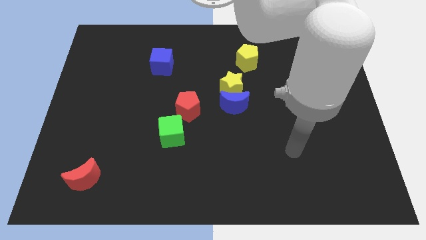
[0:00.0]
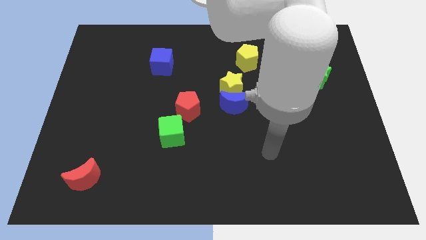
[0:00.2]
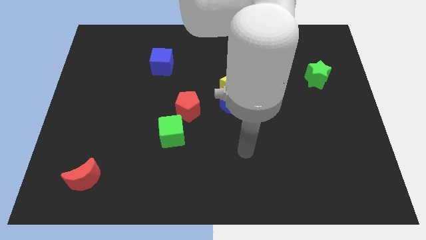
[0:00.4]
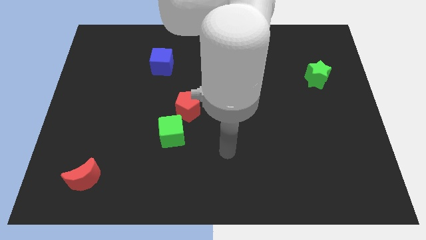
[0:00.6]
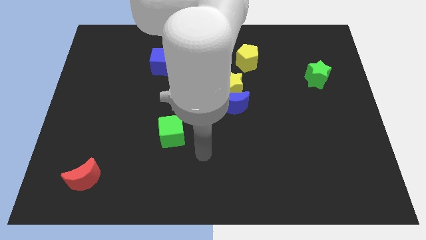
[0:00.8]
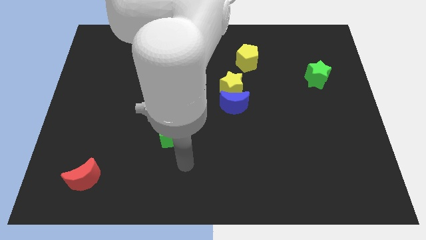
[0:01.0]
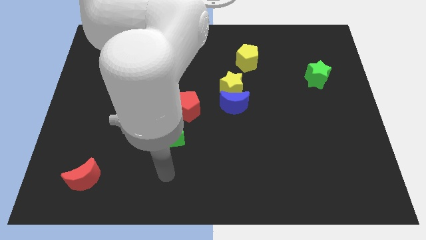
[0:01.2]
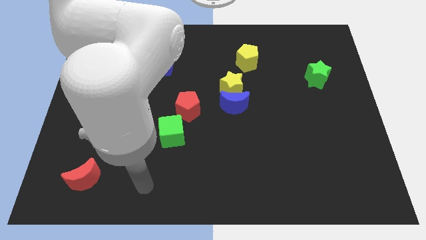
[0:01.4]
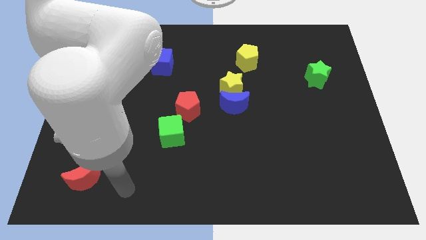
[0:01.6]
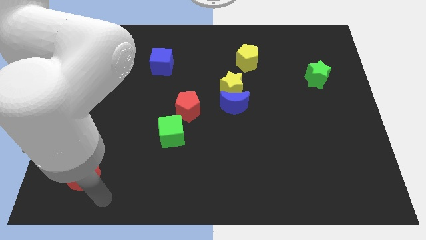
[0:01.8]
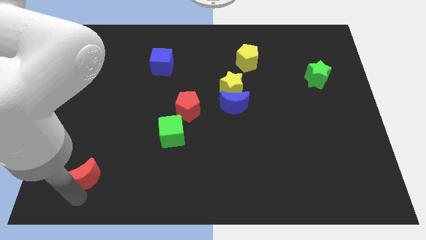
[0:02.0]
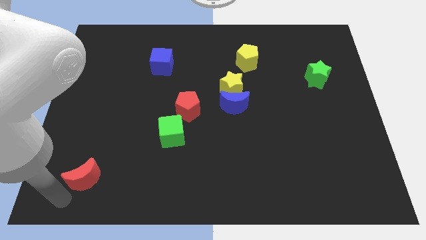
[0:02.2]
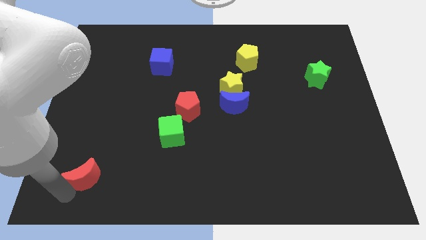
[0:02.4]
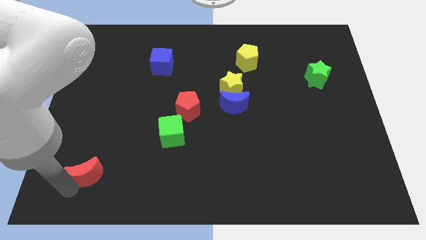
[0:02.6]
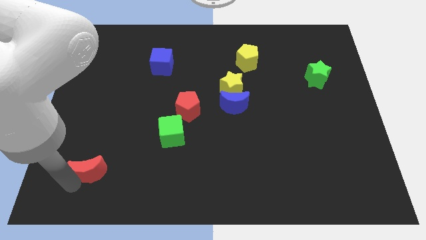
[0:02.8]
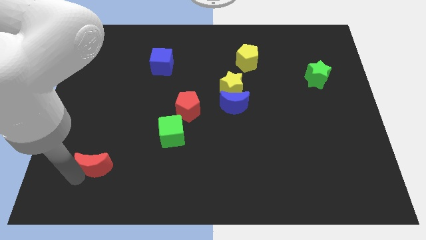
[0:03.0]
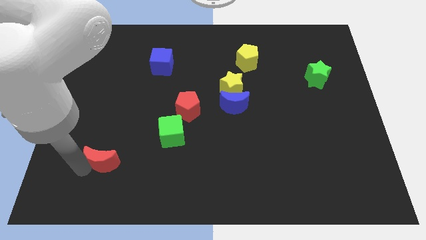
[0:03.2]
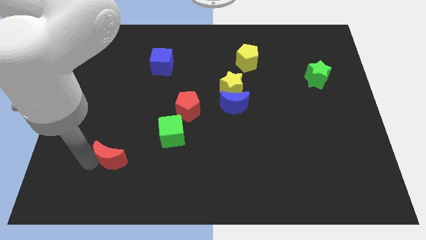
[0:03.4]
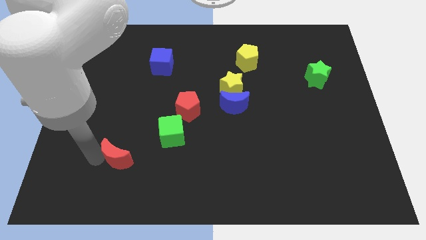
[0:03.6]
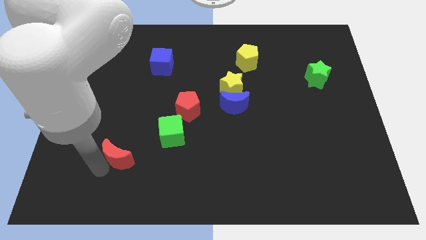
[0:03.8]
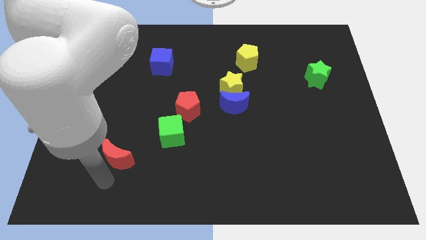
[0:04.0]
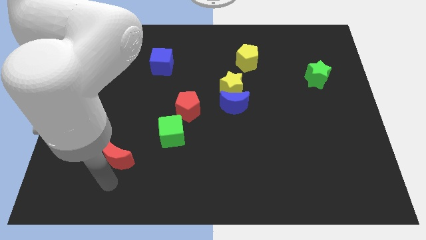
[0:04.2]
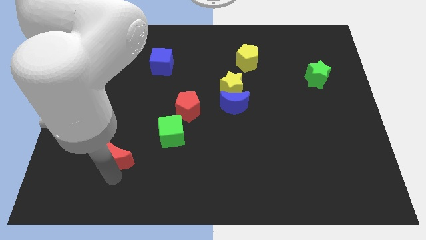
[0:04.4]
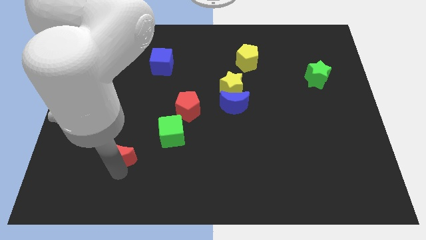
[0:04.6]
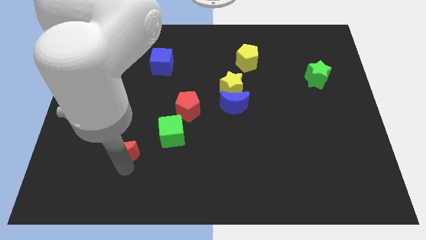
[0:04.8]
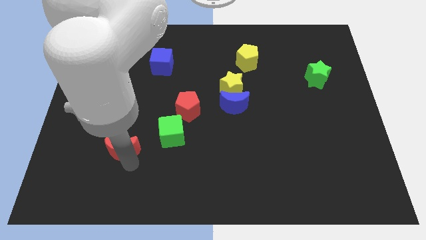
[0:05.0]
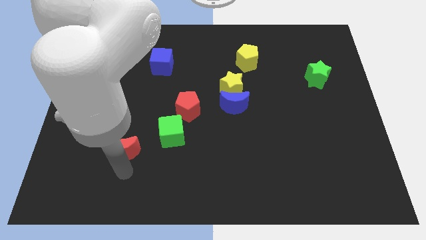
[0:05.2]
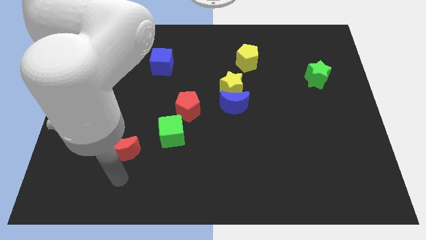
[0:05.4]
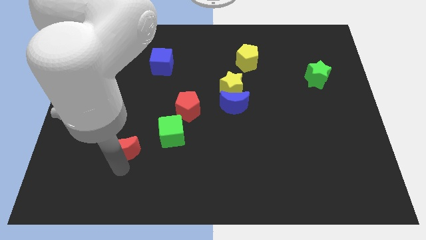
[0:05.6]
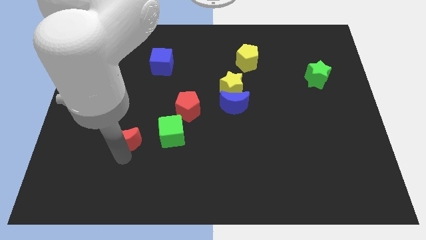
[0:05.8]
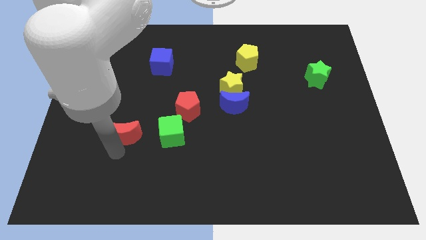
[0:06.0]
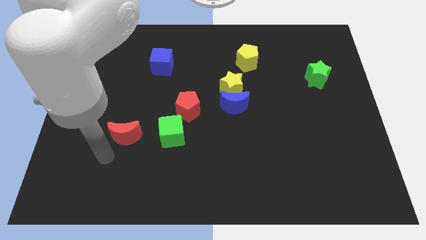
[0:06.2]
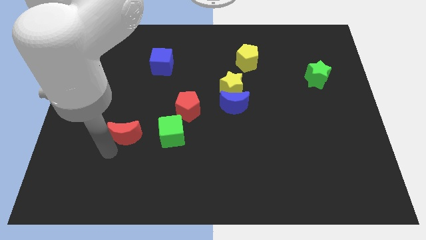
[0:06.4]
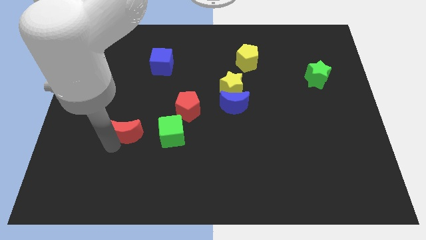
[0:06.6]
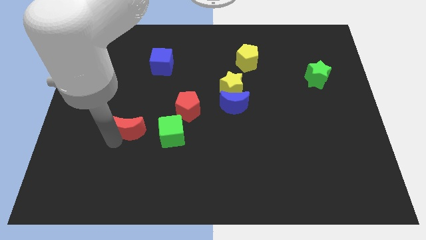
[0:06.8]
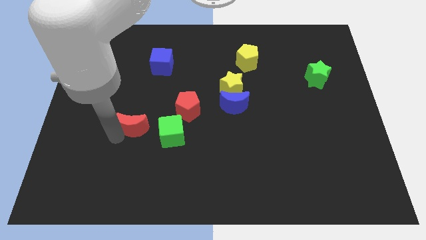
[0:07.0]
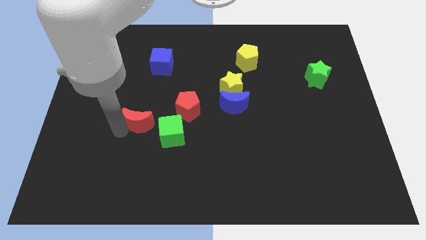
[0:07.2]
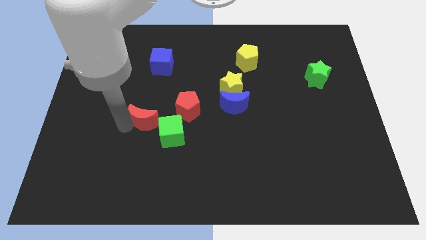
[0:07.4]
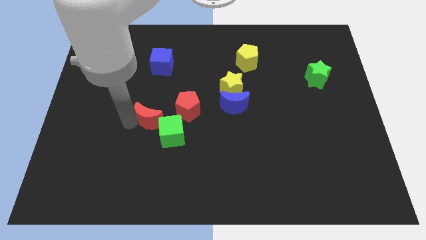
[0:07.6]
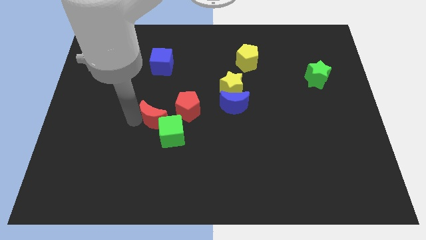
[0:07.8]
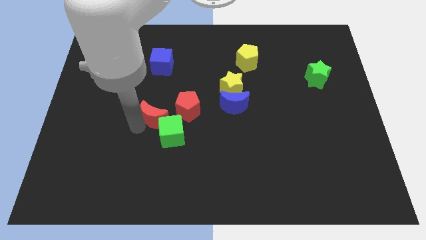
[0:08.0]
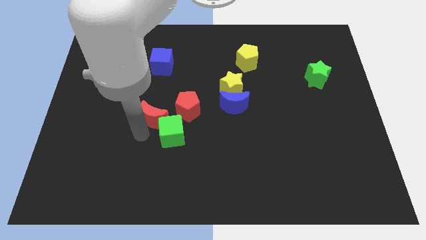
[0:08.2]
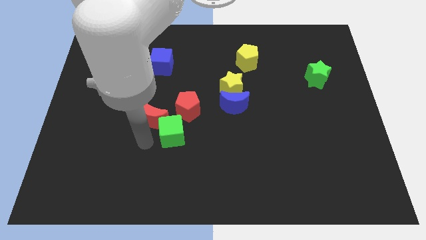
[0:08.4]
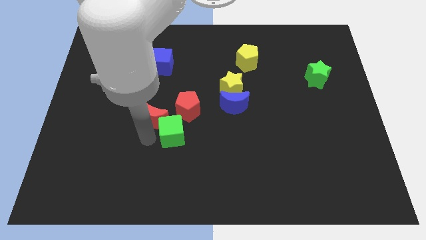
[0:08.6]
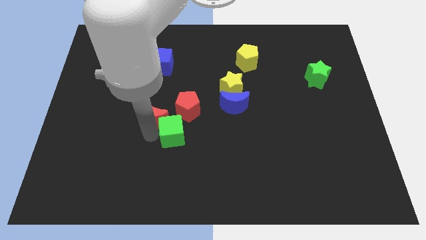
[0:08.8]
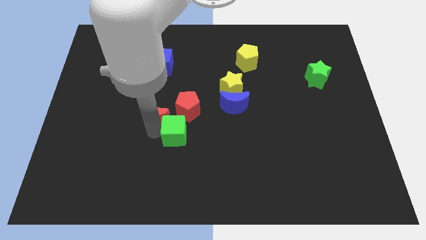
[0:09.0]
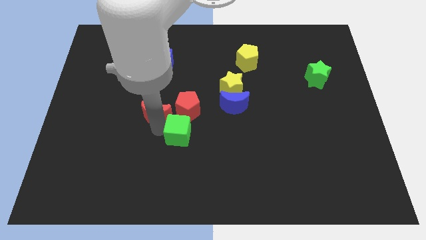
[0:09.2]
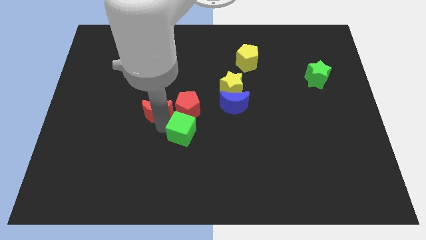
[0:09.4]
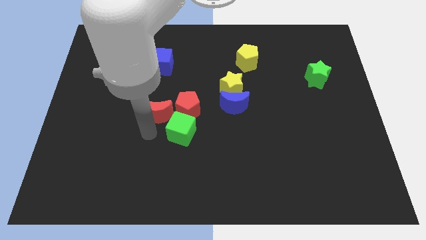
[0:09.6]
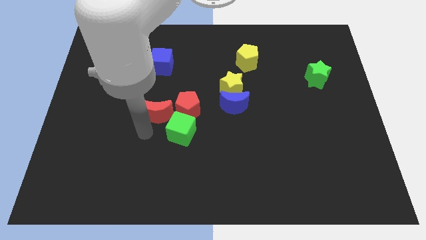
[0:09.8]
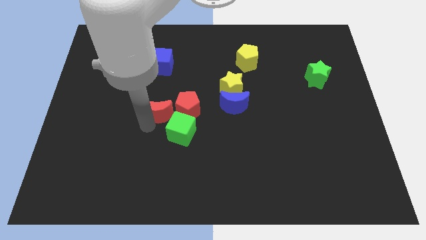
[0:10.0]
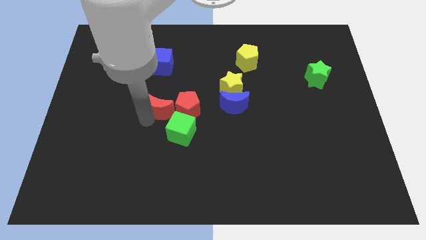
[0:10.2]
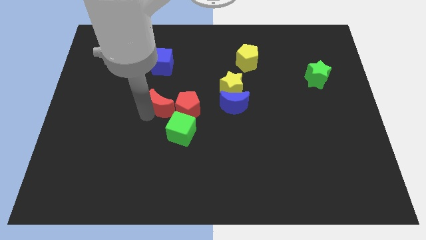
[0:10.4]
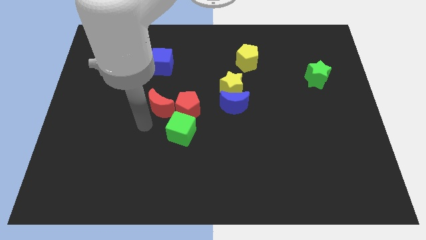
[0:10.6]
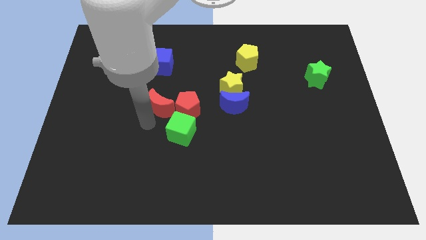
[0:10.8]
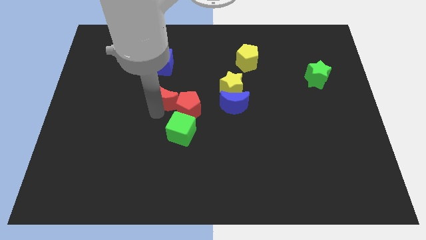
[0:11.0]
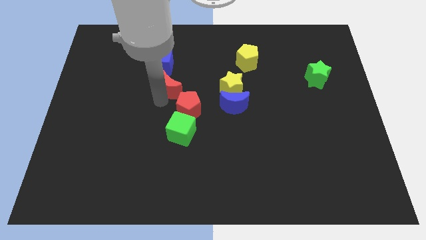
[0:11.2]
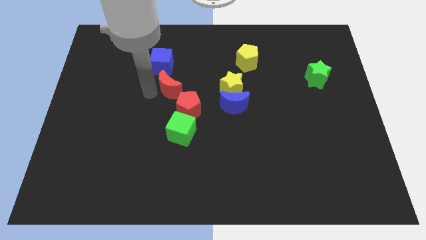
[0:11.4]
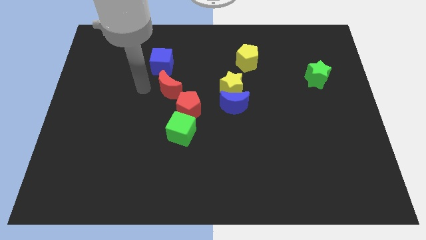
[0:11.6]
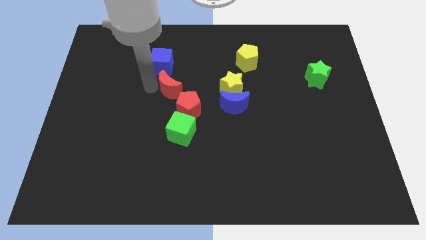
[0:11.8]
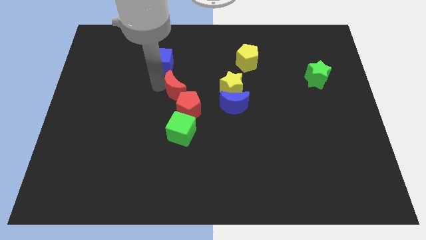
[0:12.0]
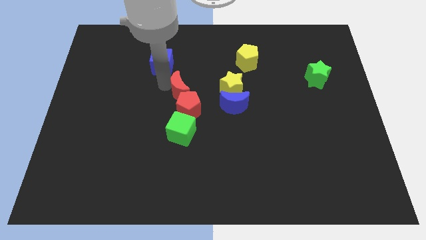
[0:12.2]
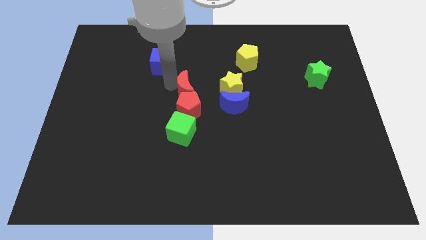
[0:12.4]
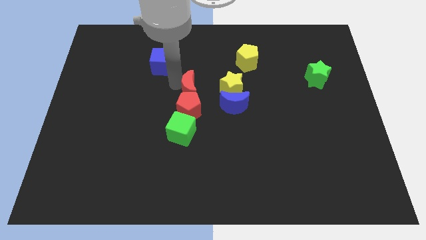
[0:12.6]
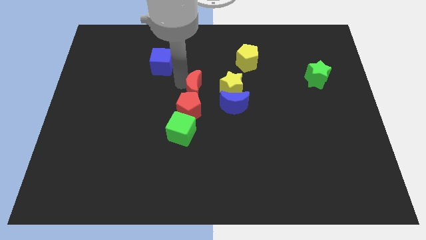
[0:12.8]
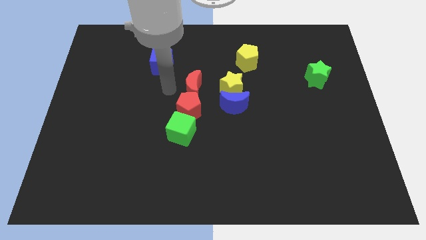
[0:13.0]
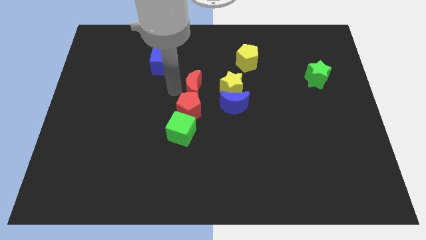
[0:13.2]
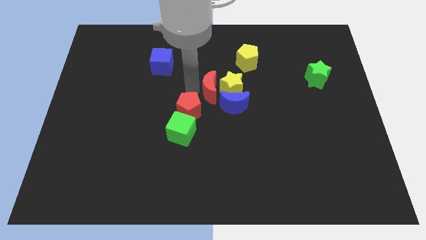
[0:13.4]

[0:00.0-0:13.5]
push the red moon close to the yellow star
